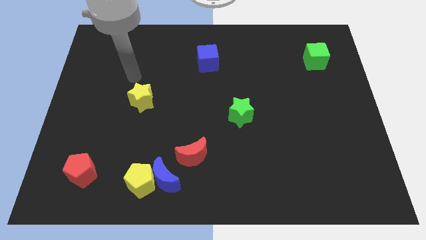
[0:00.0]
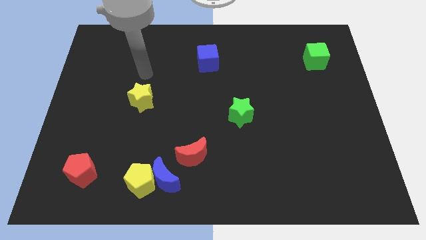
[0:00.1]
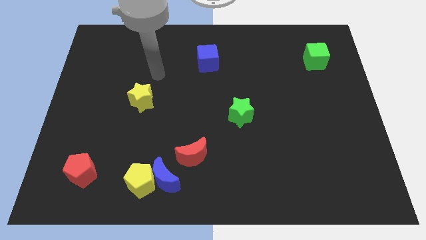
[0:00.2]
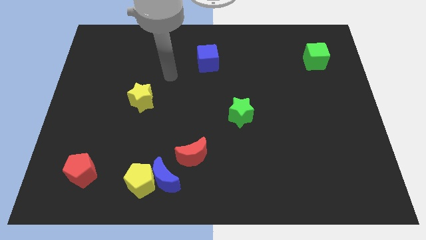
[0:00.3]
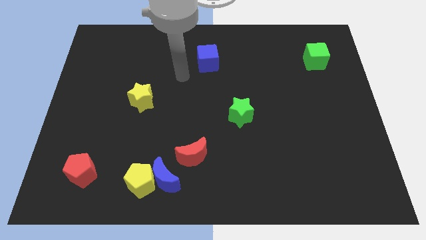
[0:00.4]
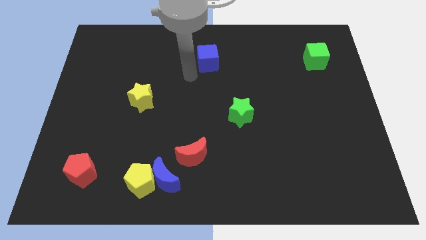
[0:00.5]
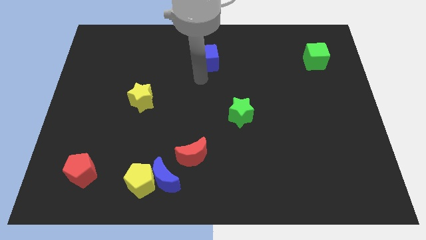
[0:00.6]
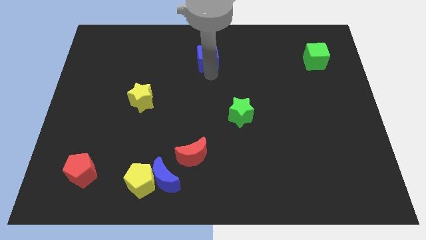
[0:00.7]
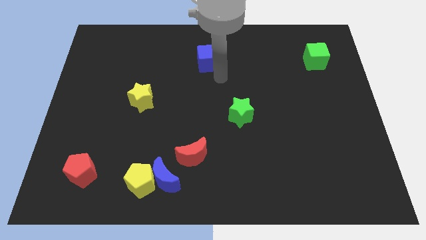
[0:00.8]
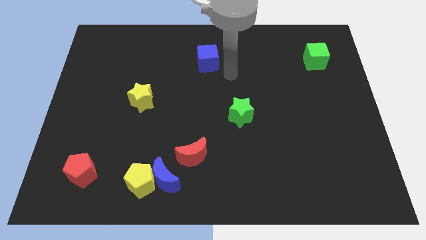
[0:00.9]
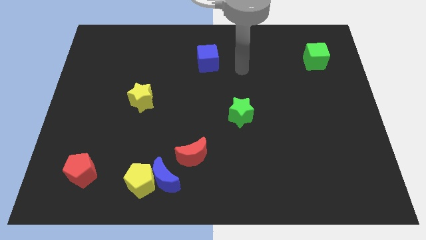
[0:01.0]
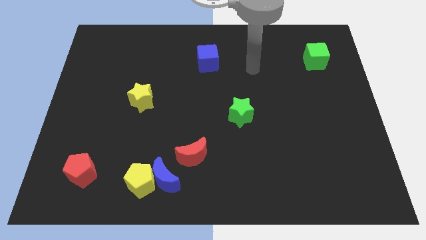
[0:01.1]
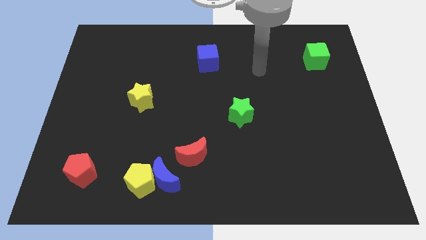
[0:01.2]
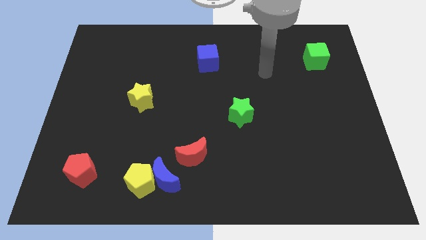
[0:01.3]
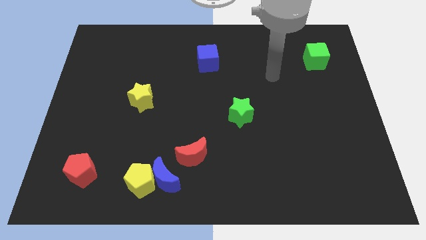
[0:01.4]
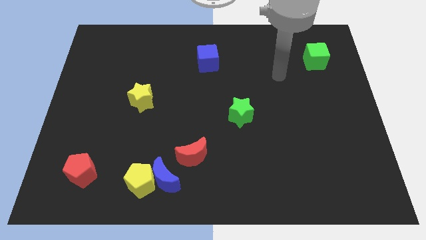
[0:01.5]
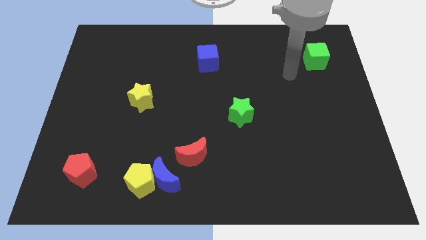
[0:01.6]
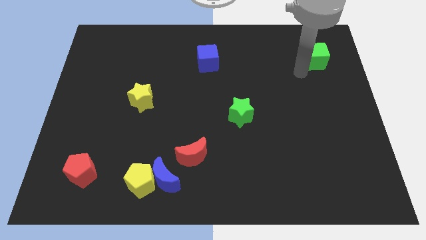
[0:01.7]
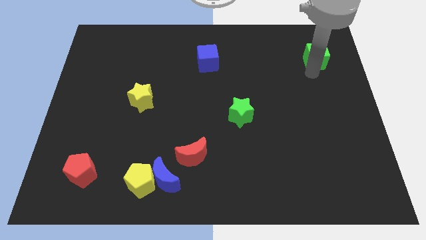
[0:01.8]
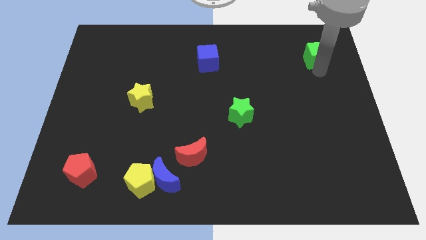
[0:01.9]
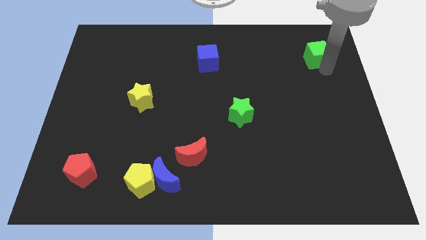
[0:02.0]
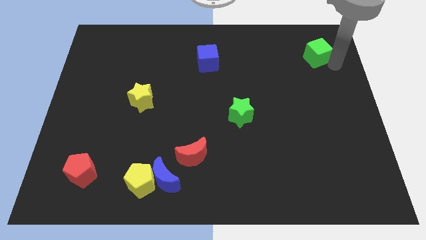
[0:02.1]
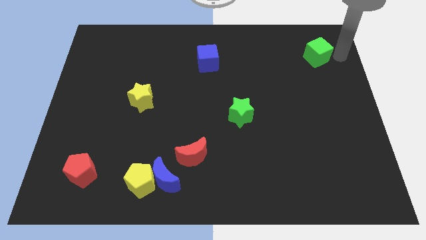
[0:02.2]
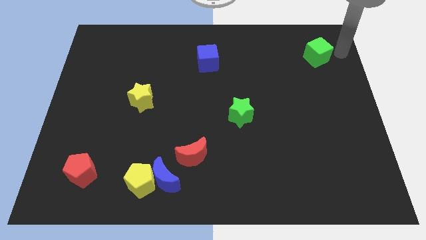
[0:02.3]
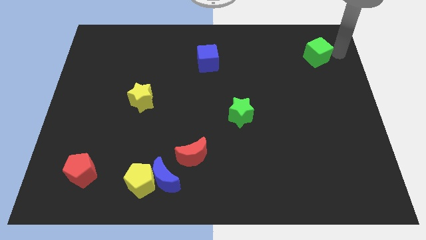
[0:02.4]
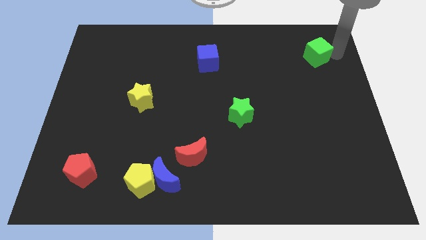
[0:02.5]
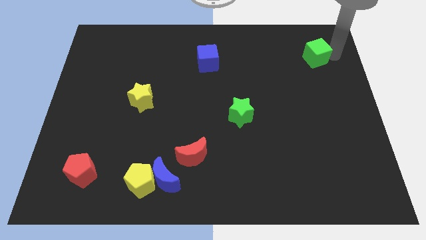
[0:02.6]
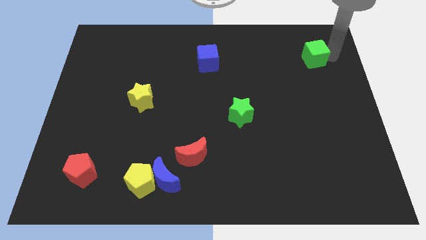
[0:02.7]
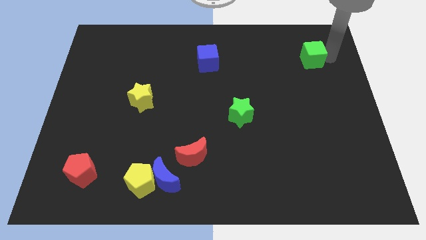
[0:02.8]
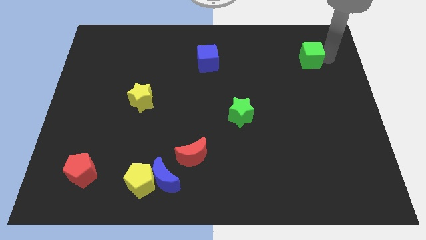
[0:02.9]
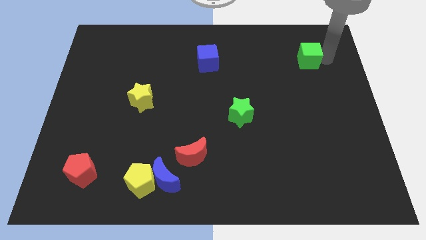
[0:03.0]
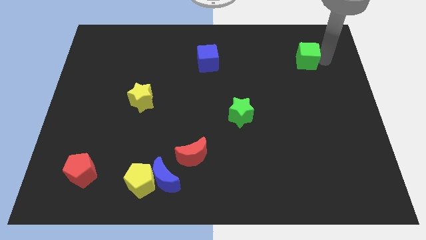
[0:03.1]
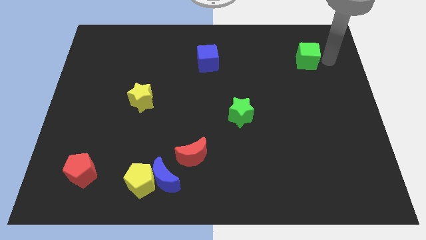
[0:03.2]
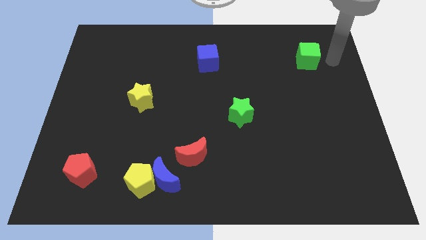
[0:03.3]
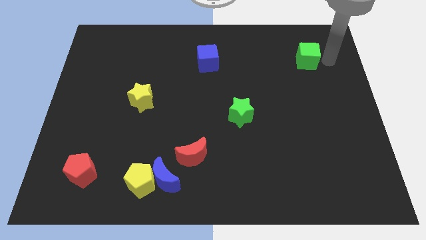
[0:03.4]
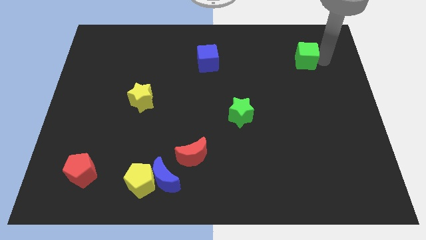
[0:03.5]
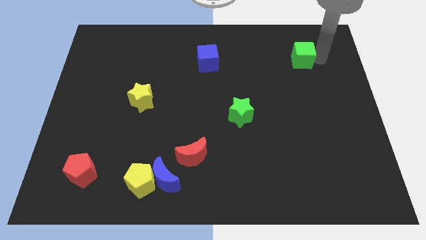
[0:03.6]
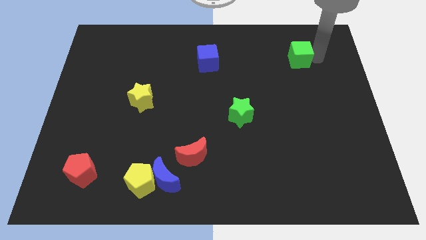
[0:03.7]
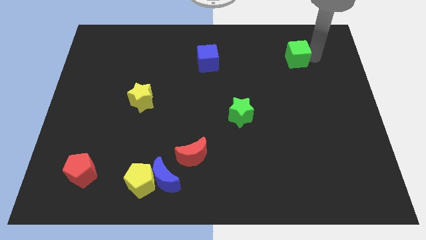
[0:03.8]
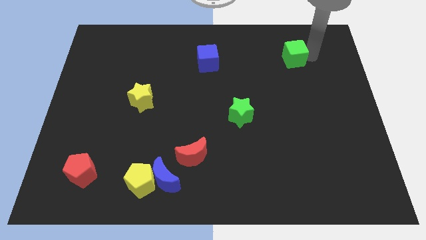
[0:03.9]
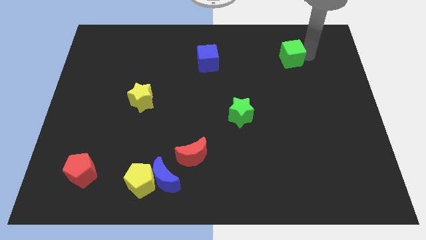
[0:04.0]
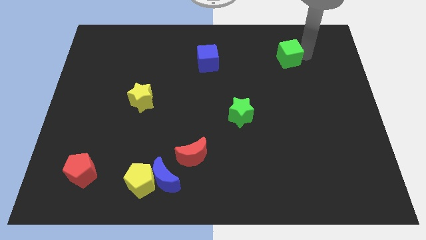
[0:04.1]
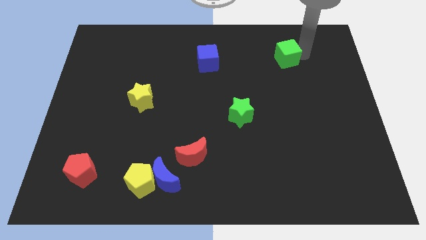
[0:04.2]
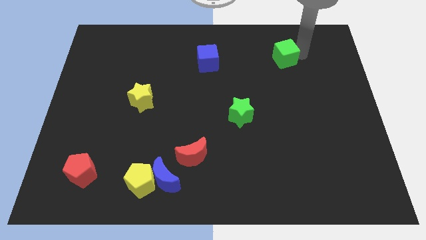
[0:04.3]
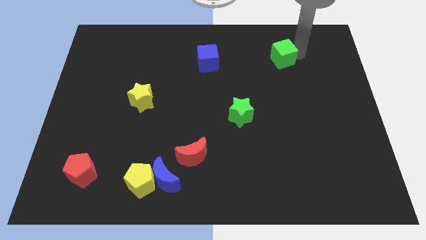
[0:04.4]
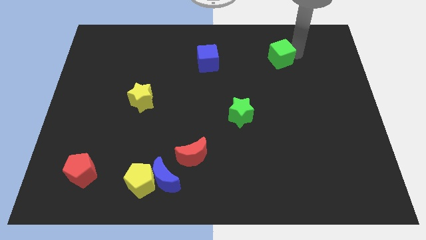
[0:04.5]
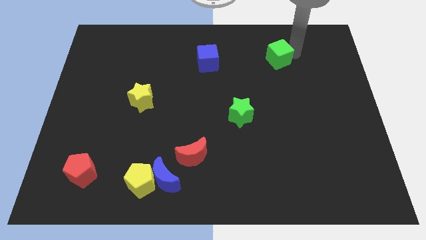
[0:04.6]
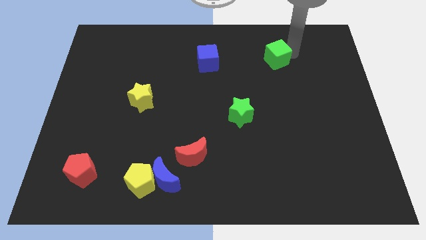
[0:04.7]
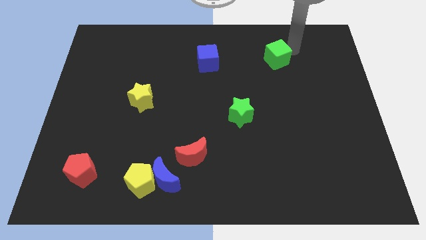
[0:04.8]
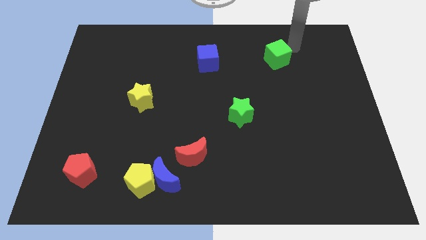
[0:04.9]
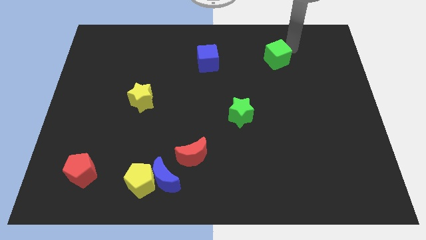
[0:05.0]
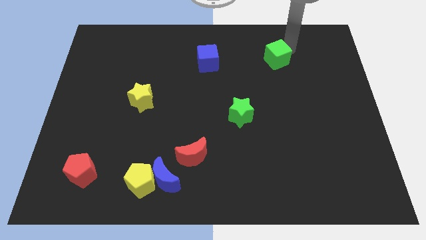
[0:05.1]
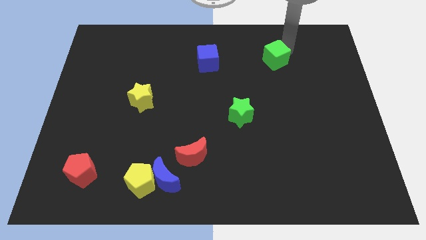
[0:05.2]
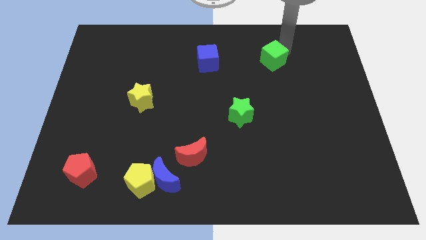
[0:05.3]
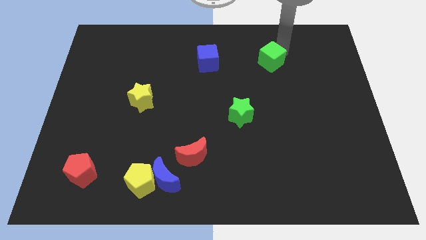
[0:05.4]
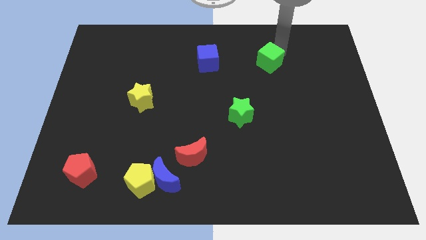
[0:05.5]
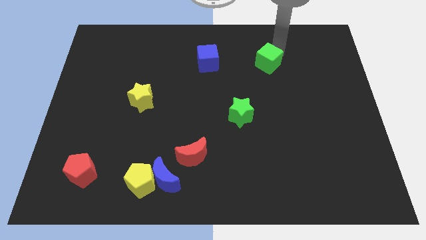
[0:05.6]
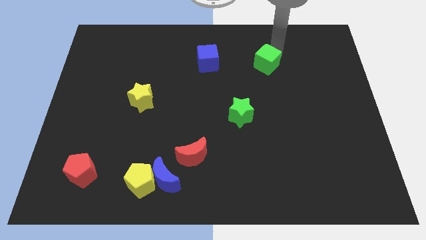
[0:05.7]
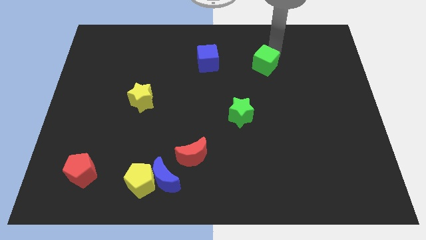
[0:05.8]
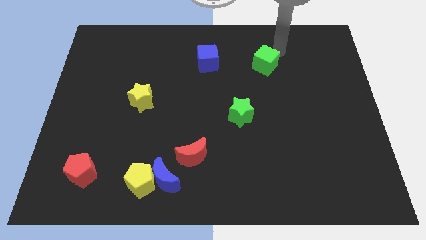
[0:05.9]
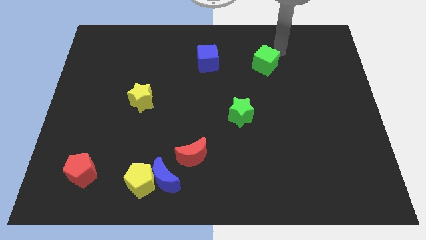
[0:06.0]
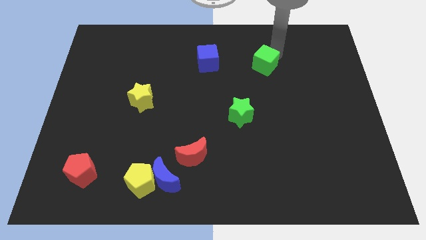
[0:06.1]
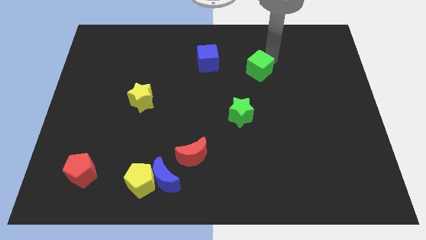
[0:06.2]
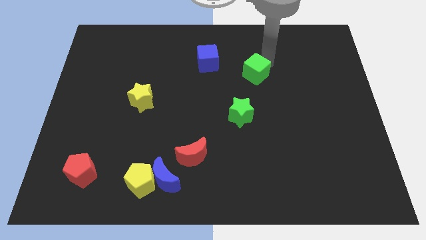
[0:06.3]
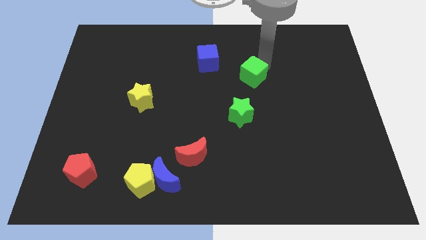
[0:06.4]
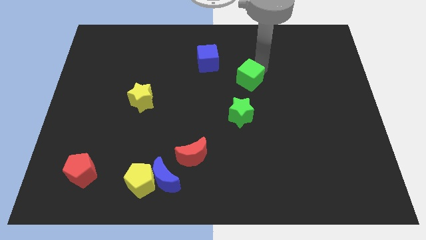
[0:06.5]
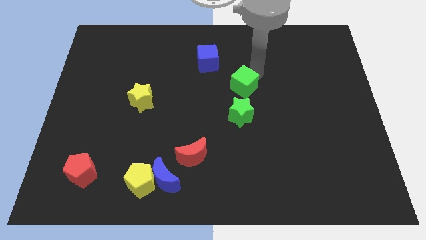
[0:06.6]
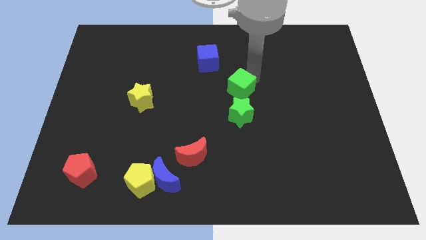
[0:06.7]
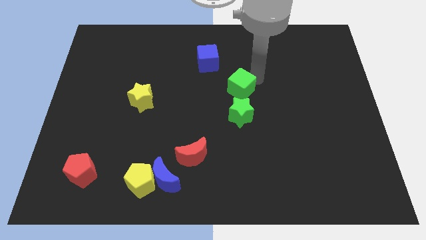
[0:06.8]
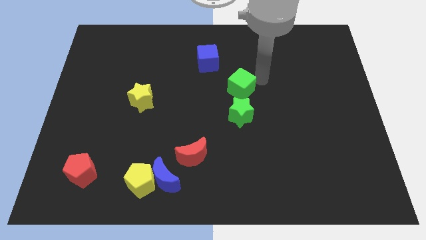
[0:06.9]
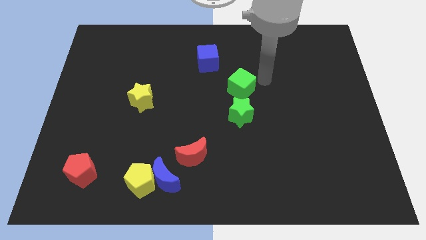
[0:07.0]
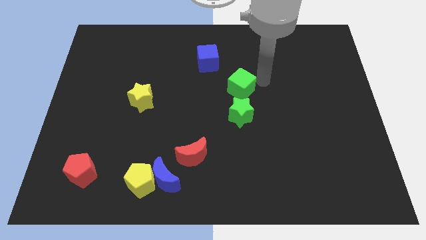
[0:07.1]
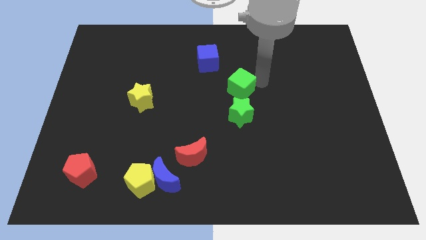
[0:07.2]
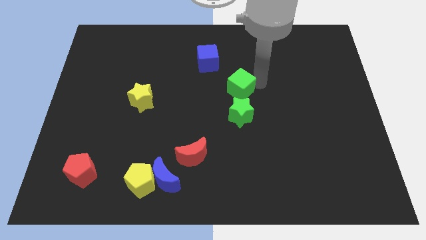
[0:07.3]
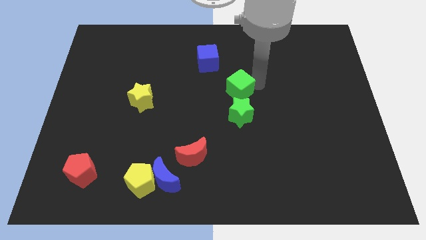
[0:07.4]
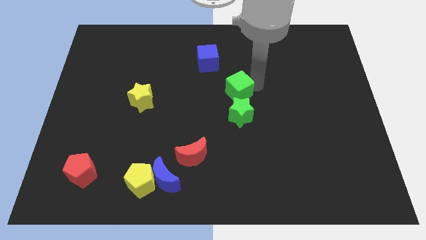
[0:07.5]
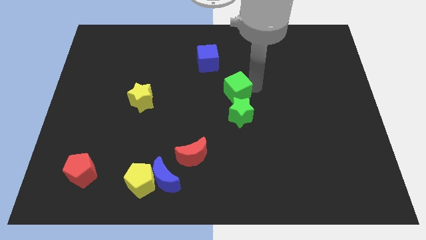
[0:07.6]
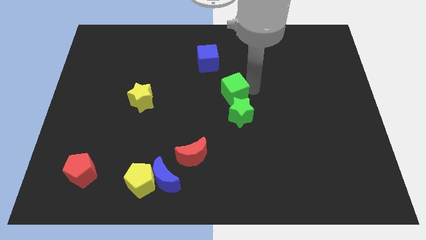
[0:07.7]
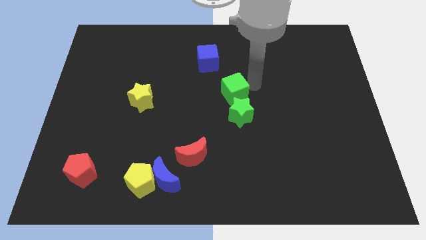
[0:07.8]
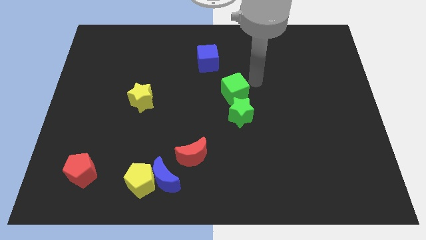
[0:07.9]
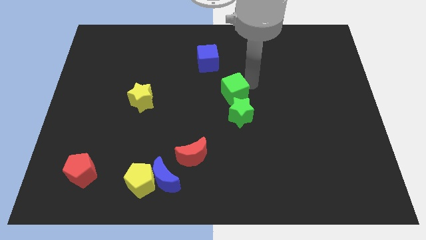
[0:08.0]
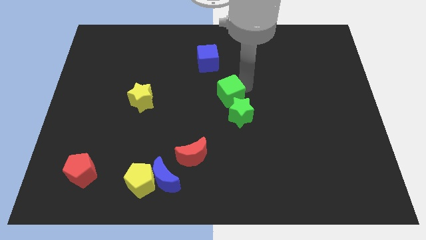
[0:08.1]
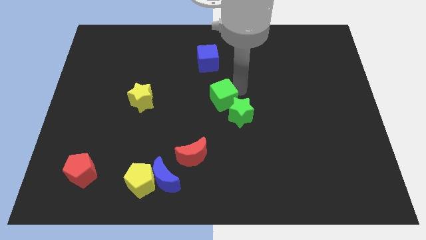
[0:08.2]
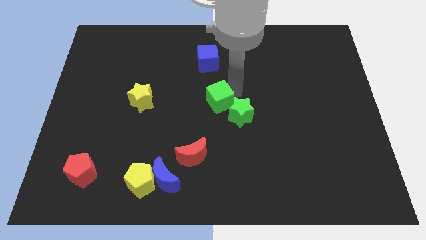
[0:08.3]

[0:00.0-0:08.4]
put the green cube to the left side of the green star
